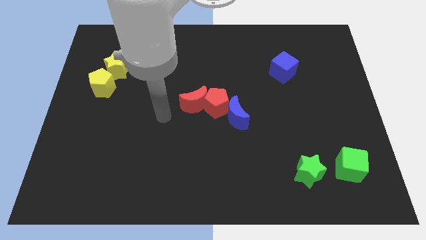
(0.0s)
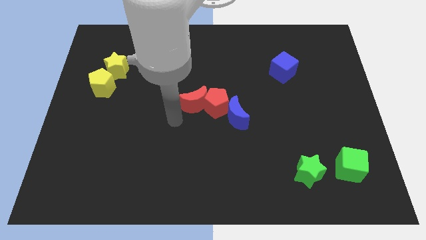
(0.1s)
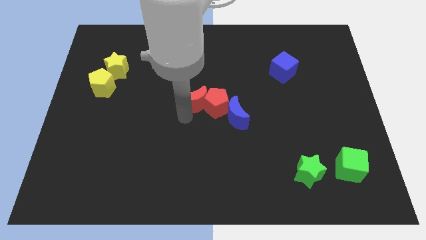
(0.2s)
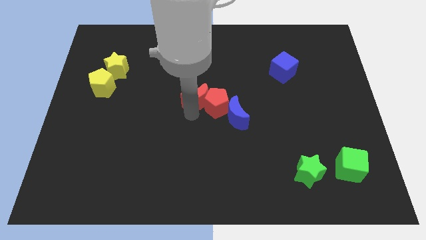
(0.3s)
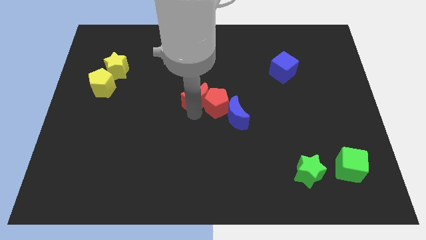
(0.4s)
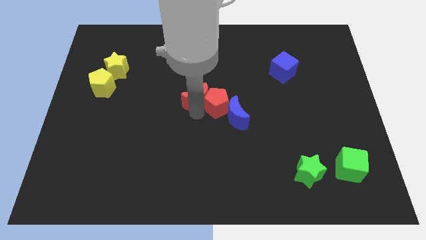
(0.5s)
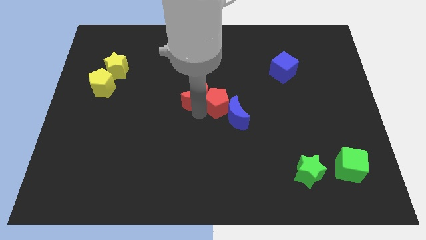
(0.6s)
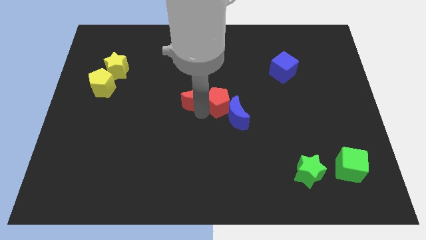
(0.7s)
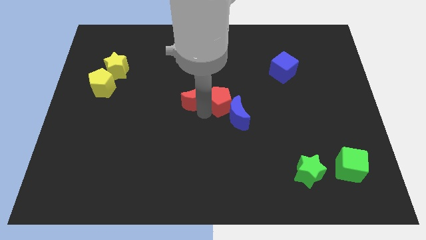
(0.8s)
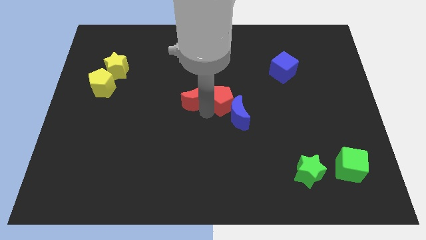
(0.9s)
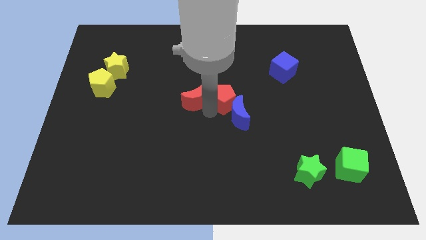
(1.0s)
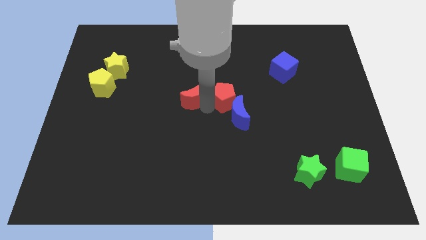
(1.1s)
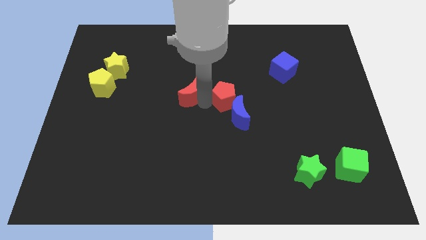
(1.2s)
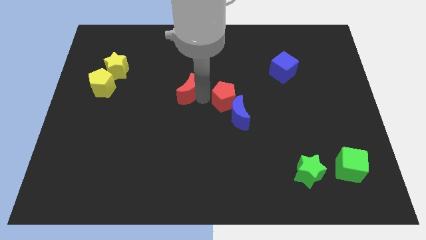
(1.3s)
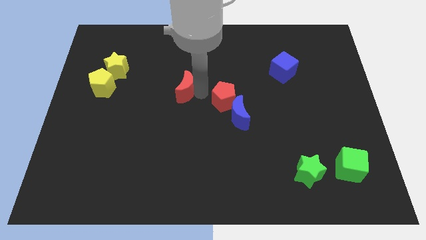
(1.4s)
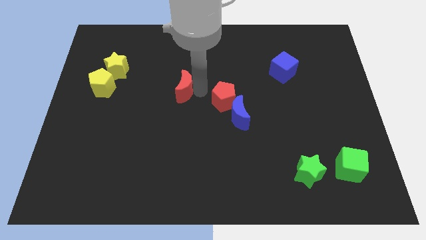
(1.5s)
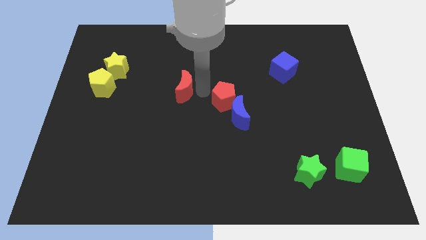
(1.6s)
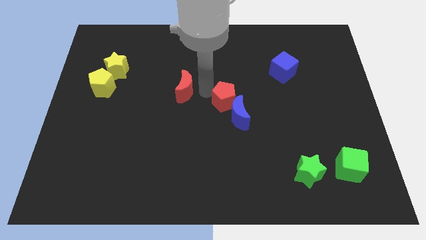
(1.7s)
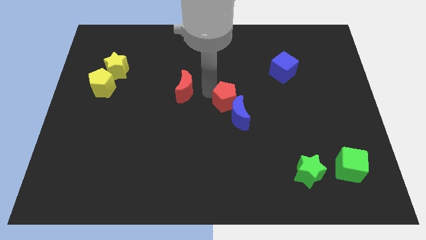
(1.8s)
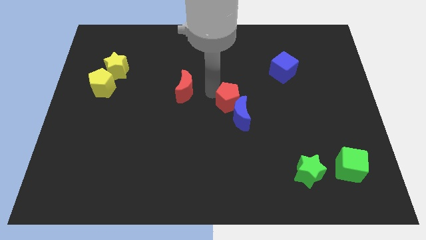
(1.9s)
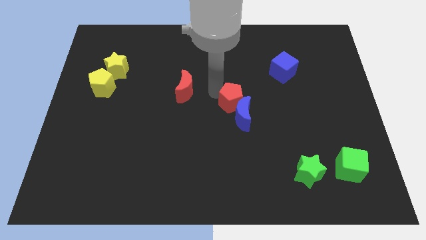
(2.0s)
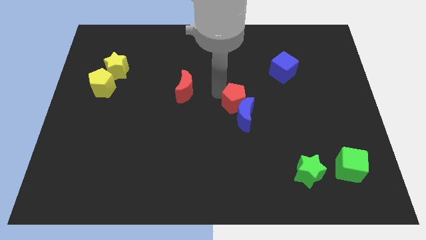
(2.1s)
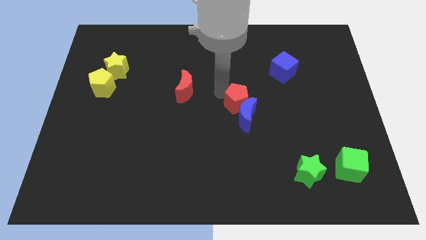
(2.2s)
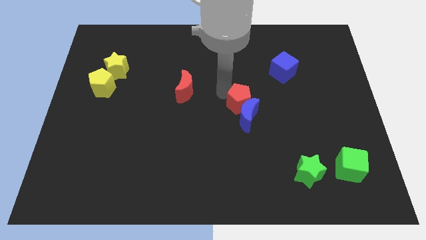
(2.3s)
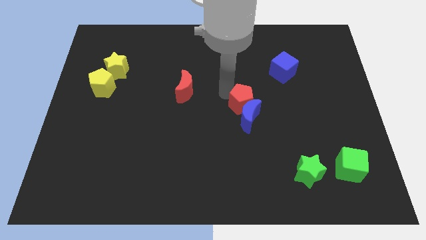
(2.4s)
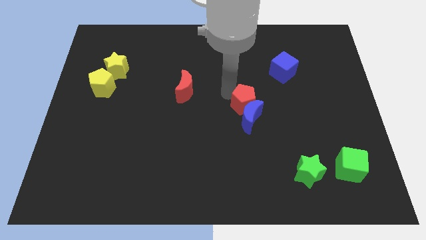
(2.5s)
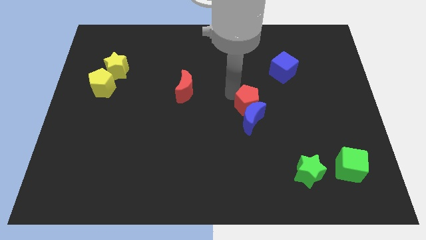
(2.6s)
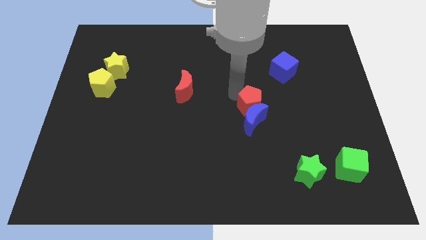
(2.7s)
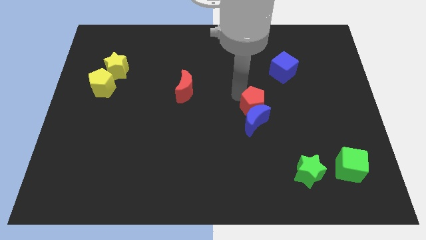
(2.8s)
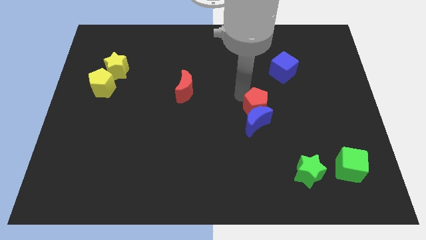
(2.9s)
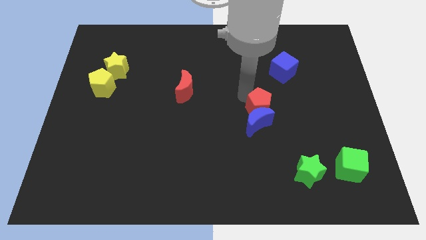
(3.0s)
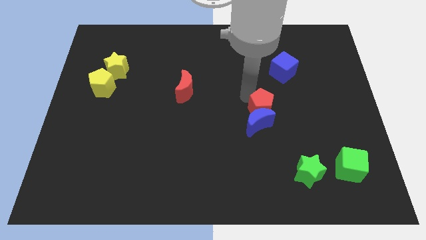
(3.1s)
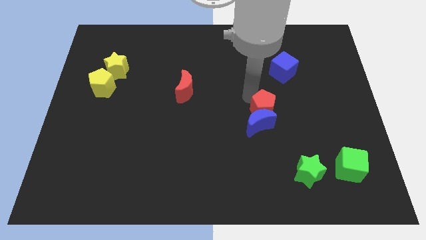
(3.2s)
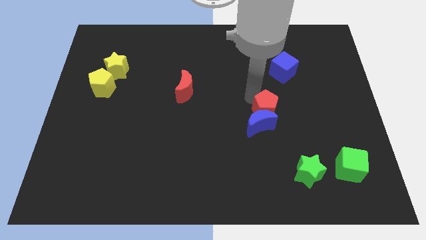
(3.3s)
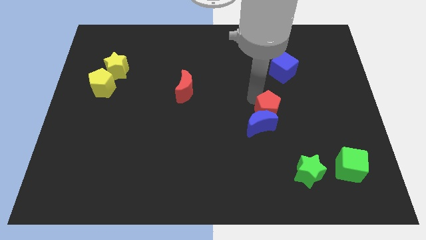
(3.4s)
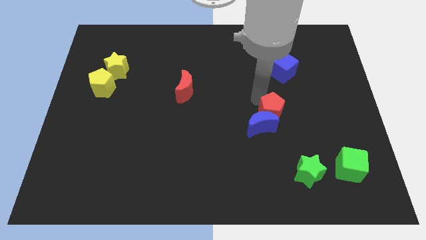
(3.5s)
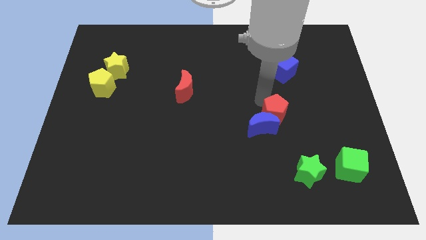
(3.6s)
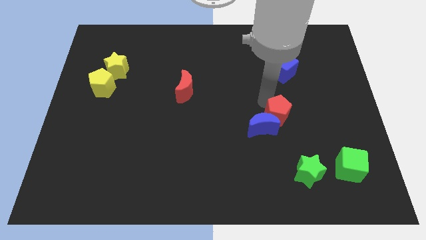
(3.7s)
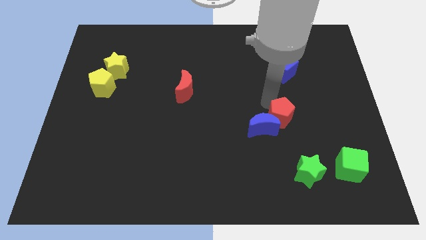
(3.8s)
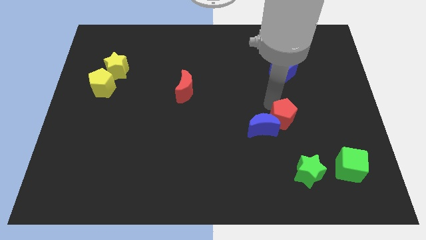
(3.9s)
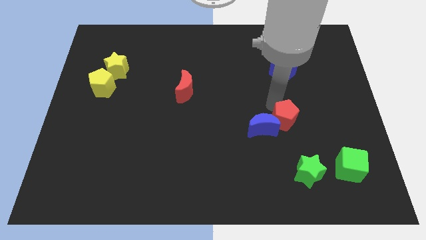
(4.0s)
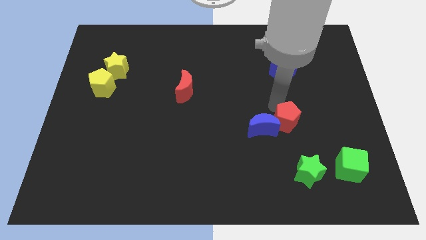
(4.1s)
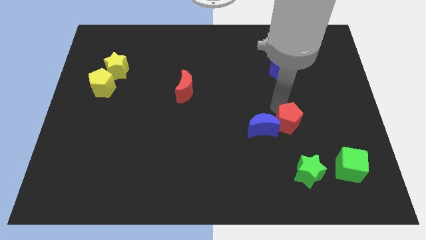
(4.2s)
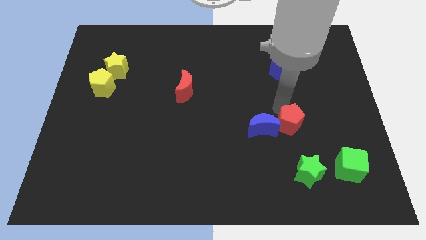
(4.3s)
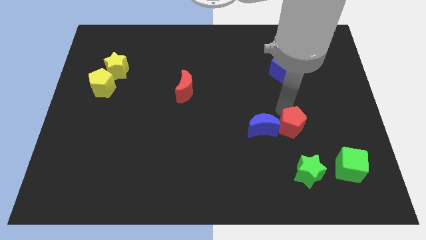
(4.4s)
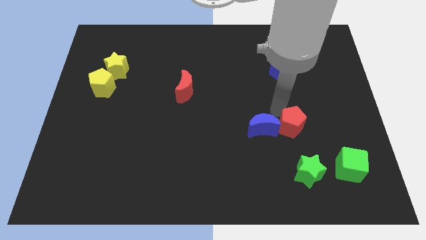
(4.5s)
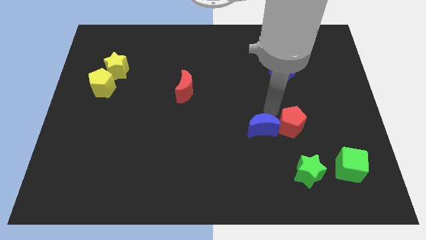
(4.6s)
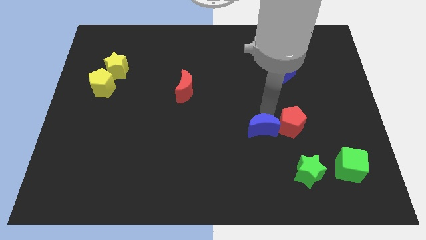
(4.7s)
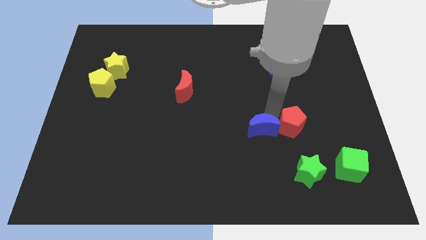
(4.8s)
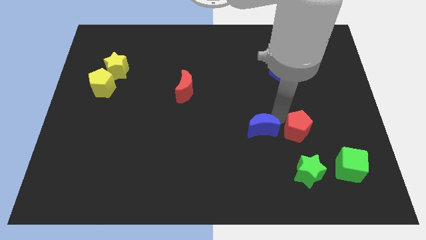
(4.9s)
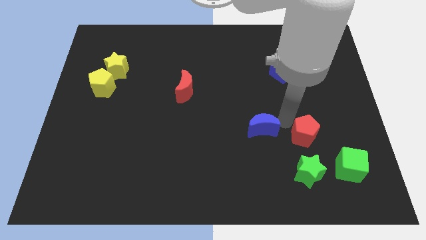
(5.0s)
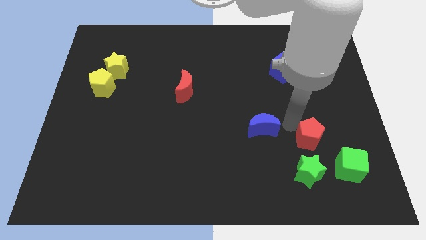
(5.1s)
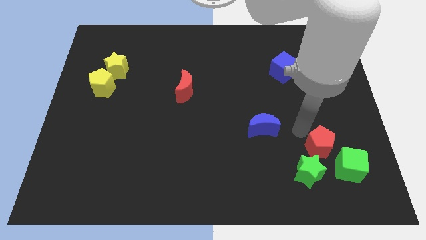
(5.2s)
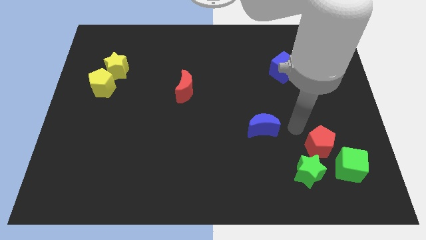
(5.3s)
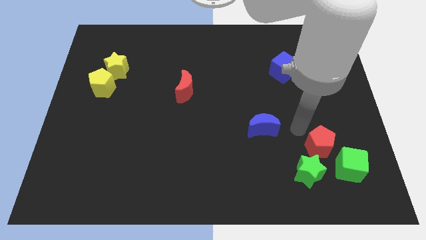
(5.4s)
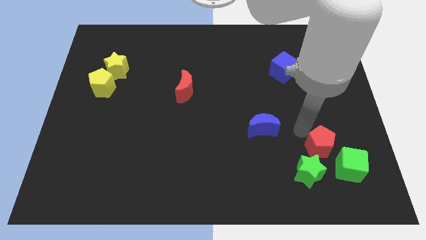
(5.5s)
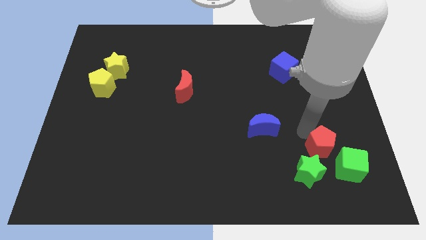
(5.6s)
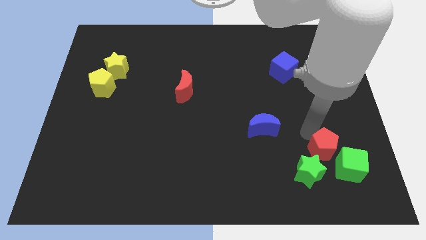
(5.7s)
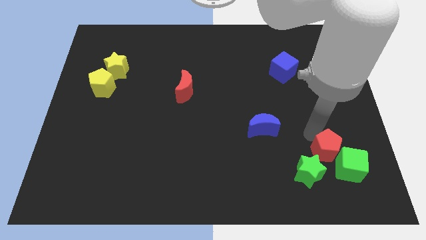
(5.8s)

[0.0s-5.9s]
move the red pentagon to the green cube

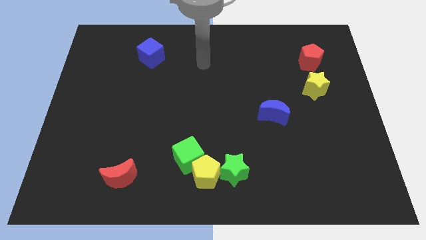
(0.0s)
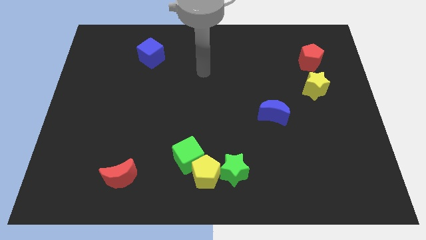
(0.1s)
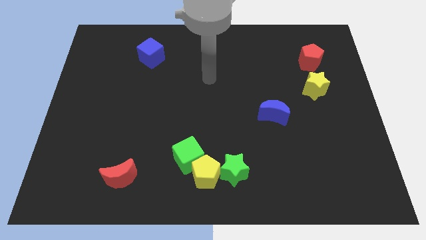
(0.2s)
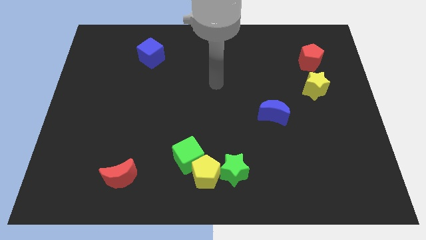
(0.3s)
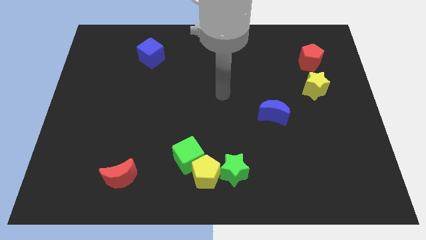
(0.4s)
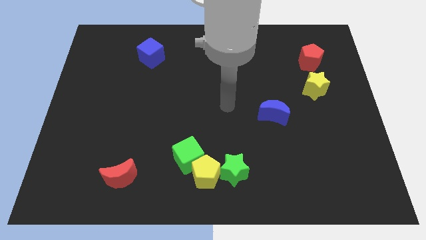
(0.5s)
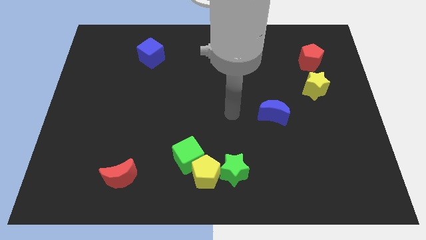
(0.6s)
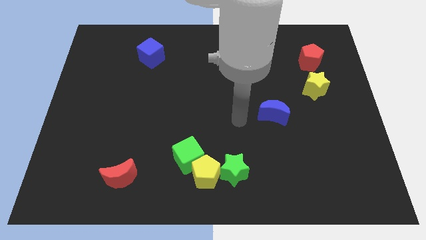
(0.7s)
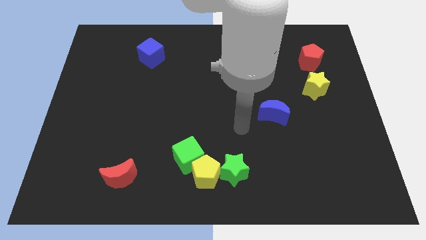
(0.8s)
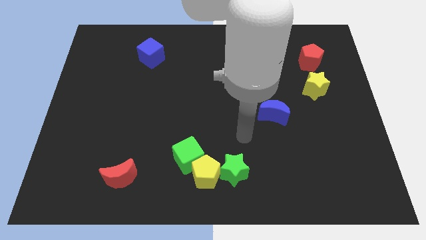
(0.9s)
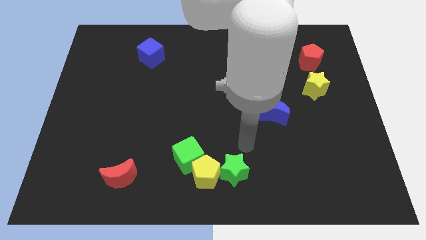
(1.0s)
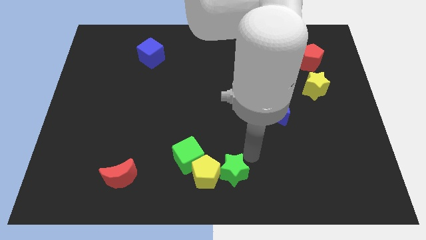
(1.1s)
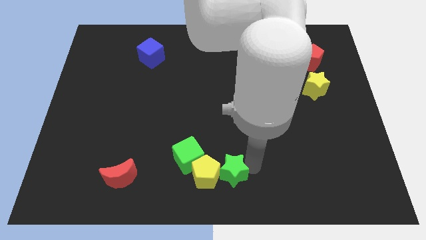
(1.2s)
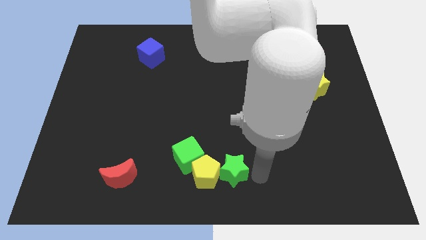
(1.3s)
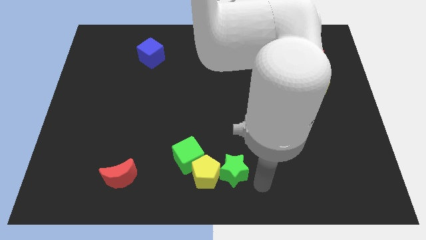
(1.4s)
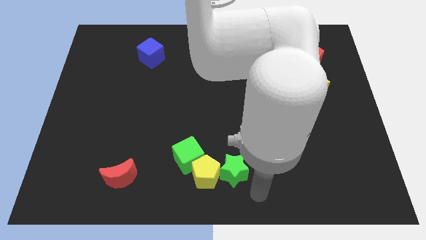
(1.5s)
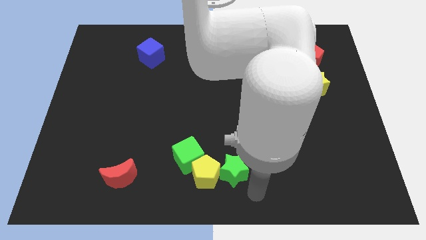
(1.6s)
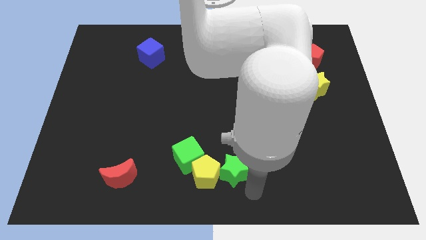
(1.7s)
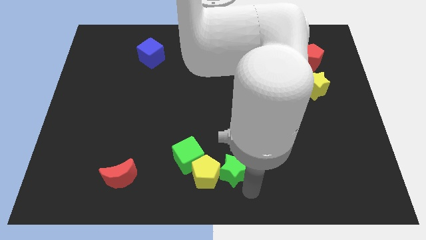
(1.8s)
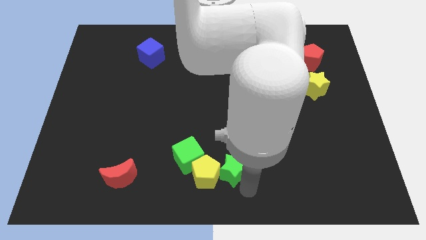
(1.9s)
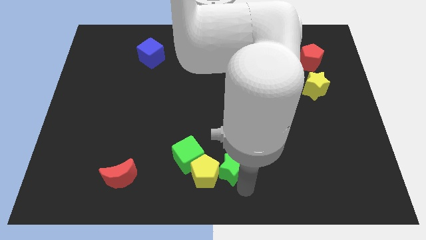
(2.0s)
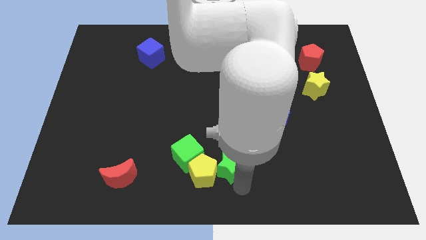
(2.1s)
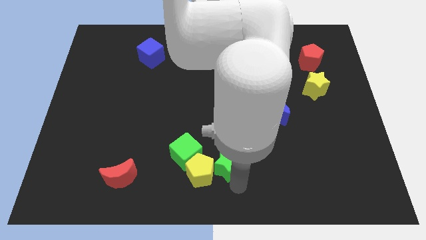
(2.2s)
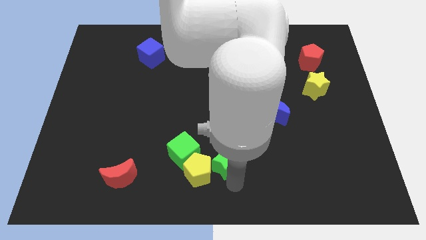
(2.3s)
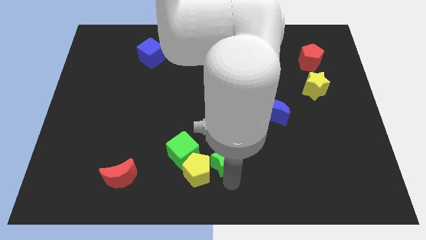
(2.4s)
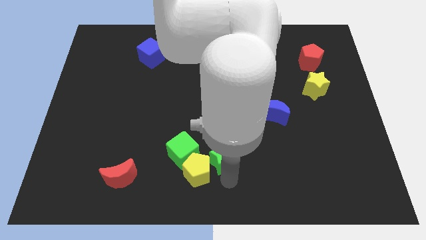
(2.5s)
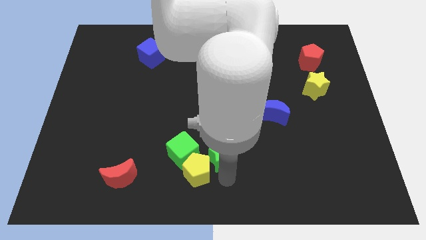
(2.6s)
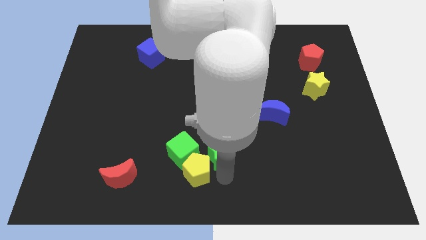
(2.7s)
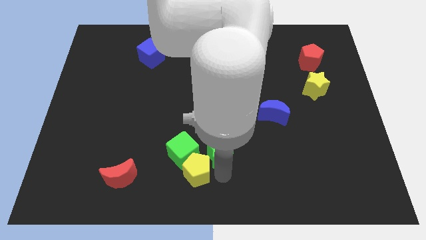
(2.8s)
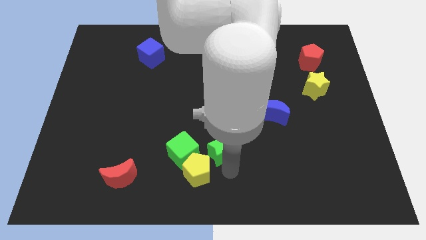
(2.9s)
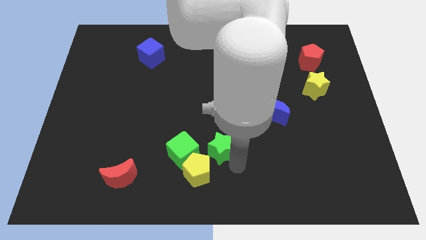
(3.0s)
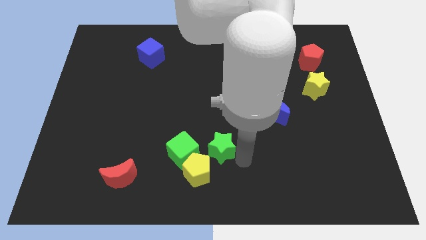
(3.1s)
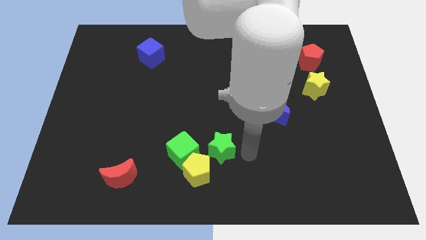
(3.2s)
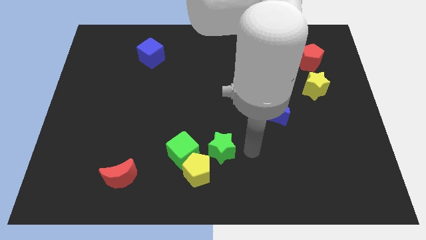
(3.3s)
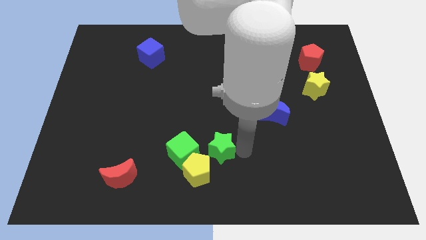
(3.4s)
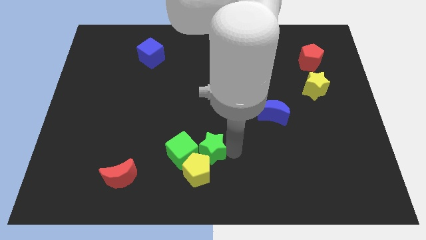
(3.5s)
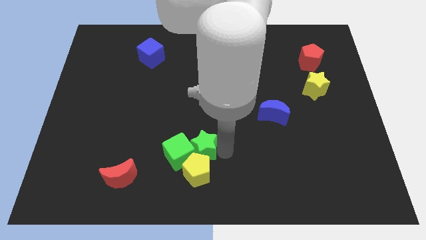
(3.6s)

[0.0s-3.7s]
slide the green star towards the green cube
